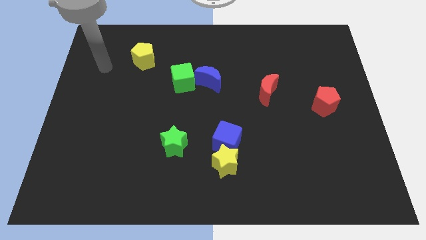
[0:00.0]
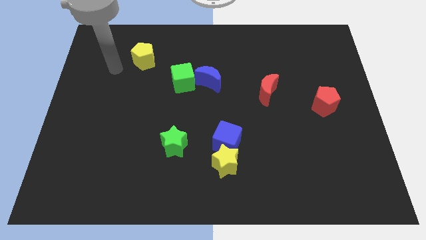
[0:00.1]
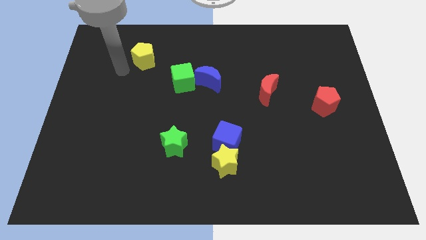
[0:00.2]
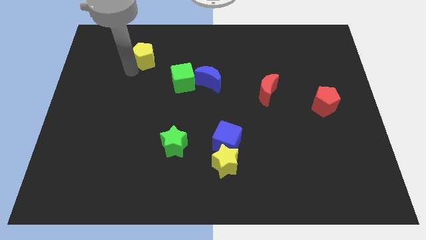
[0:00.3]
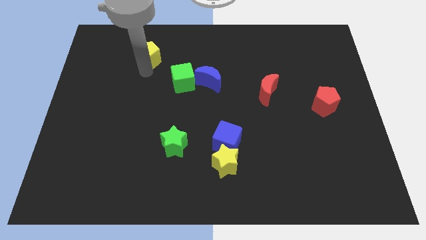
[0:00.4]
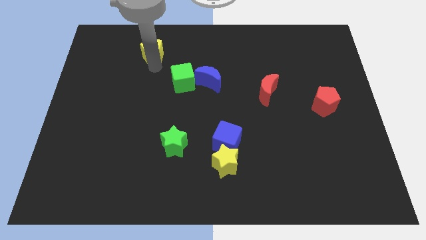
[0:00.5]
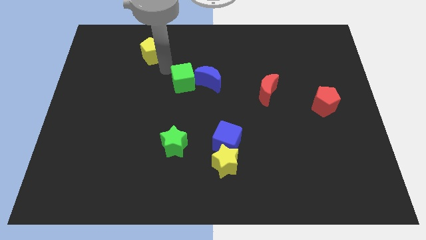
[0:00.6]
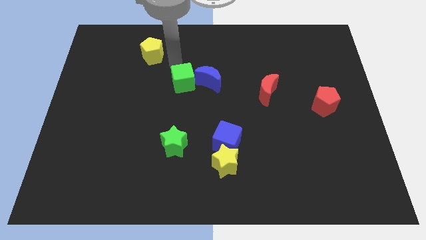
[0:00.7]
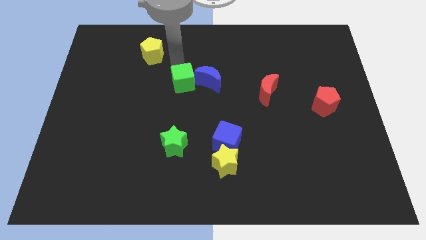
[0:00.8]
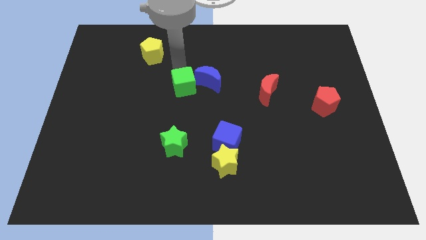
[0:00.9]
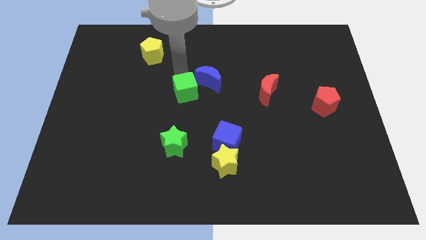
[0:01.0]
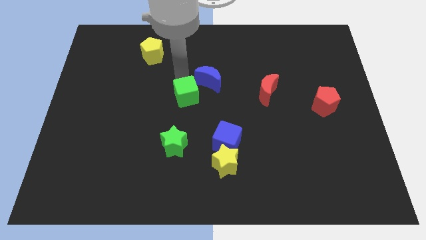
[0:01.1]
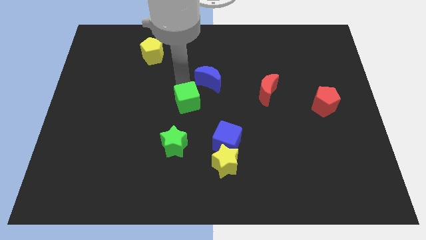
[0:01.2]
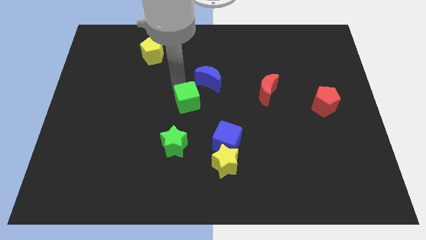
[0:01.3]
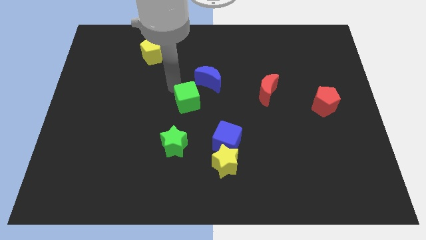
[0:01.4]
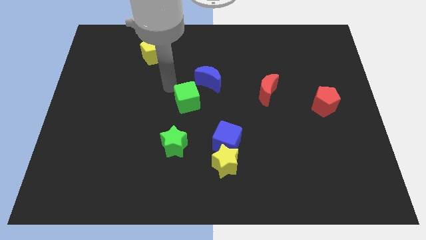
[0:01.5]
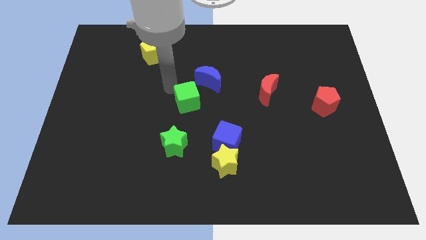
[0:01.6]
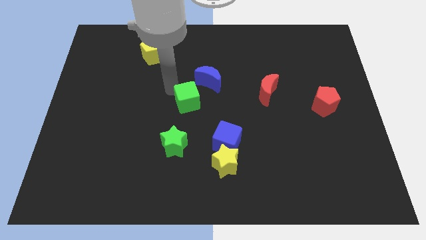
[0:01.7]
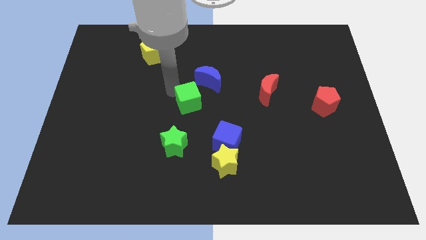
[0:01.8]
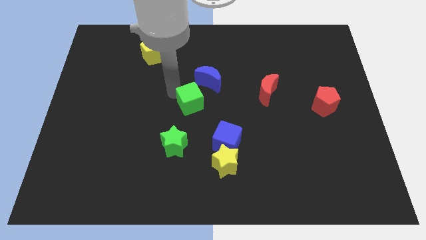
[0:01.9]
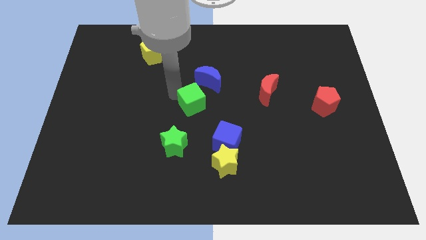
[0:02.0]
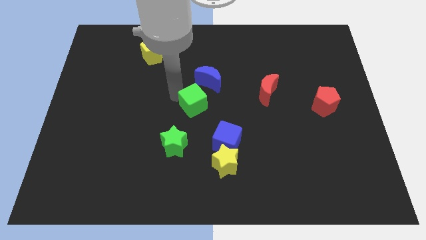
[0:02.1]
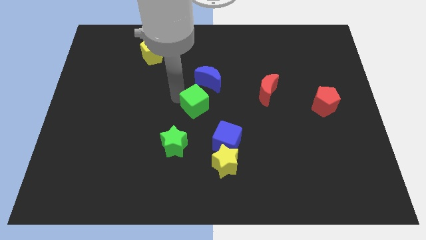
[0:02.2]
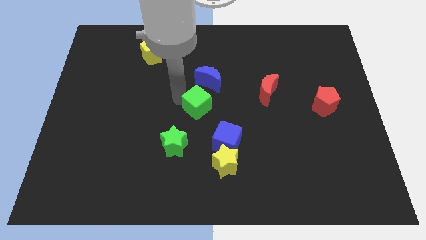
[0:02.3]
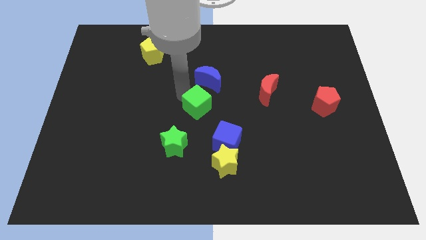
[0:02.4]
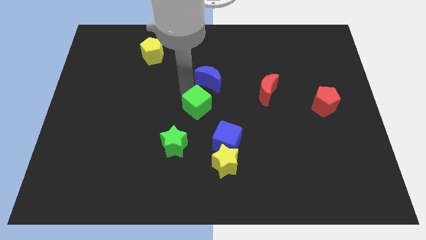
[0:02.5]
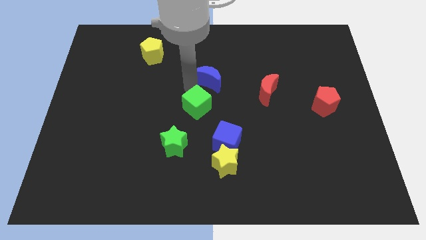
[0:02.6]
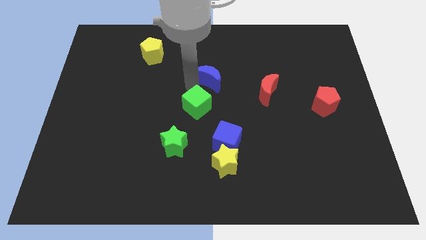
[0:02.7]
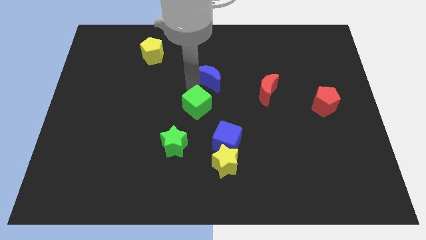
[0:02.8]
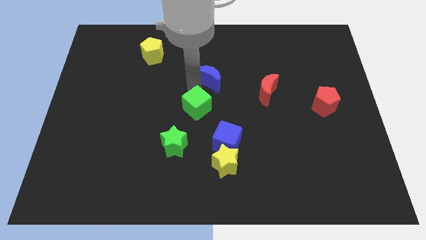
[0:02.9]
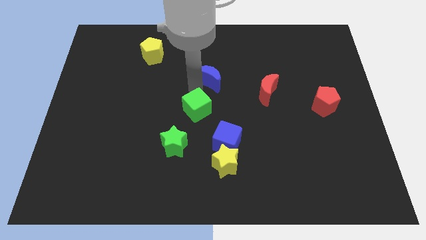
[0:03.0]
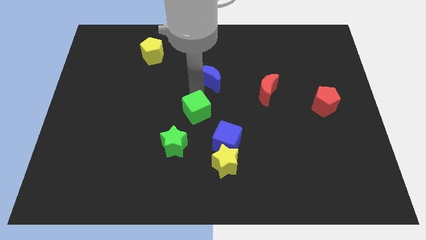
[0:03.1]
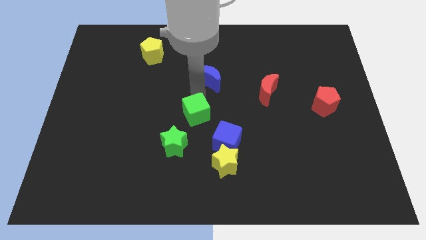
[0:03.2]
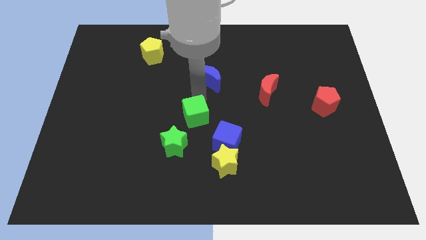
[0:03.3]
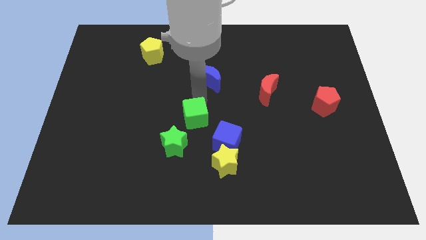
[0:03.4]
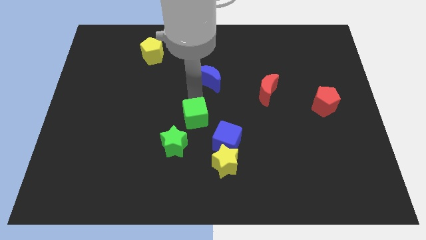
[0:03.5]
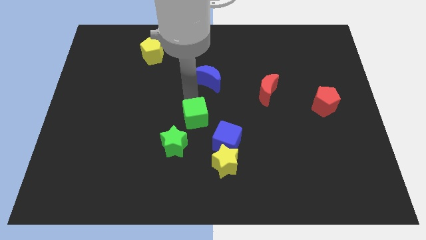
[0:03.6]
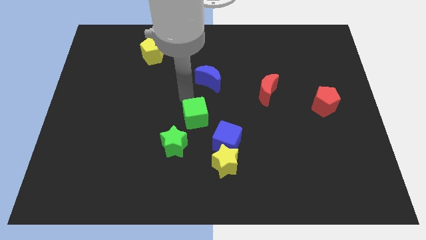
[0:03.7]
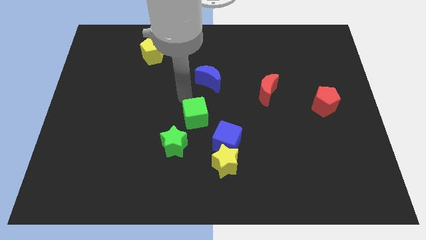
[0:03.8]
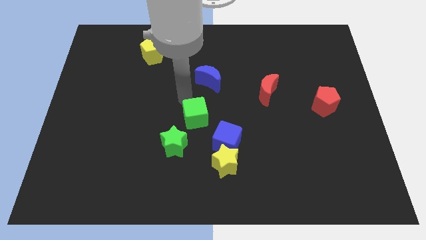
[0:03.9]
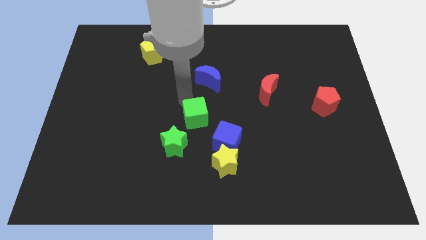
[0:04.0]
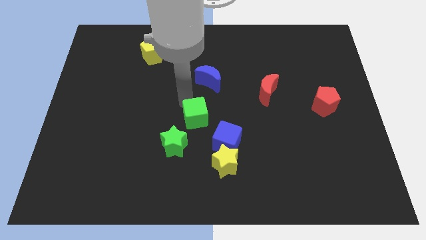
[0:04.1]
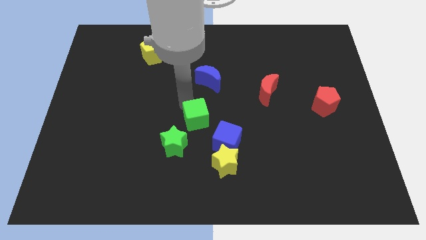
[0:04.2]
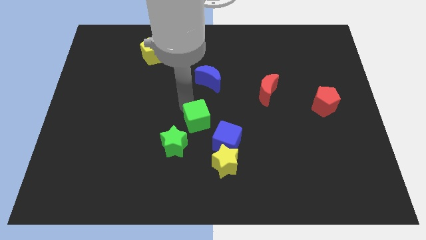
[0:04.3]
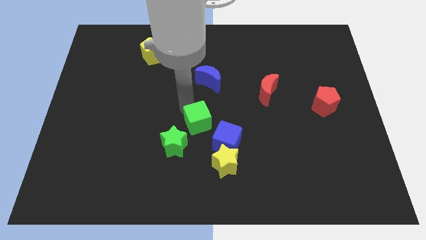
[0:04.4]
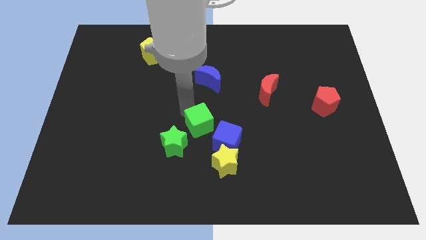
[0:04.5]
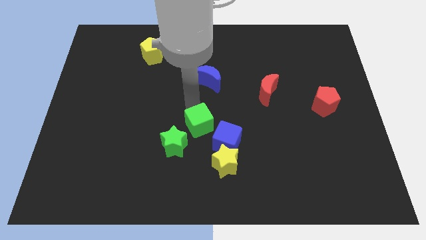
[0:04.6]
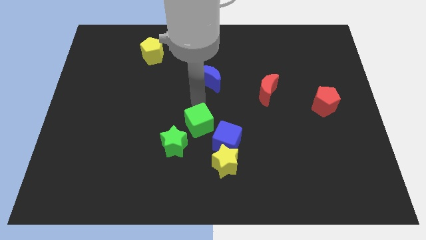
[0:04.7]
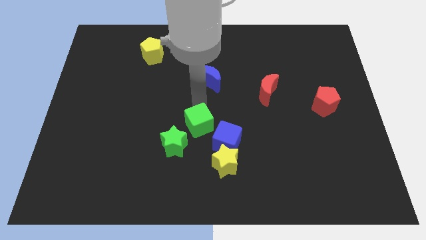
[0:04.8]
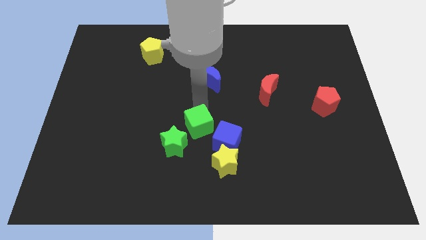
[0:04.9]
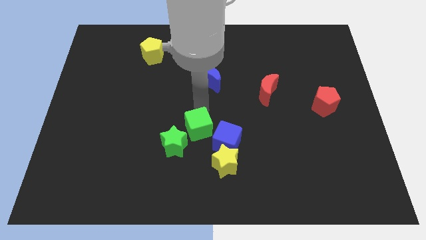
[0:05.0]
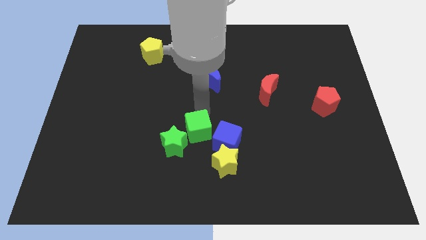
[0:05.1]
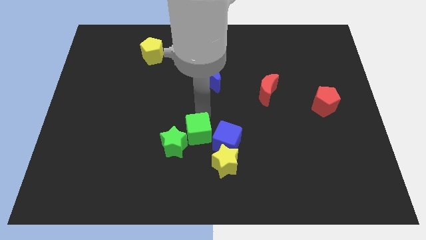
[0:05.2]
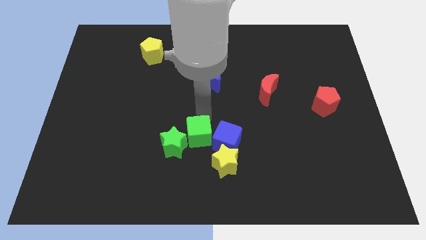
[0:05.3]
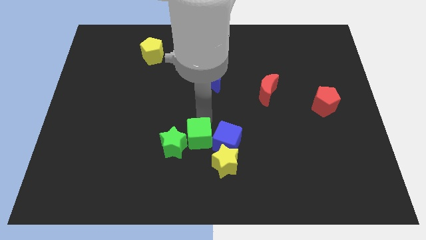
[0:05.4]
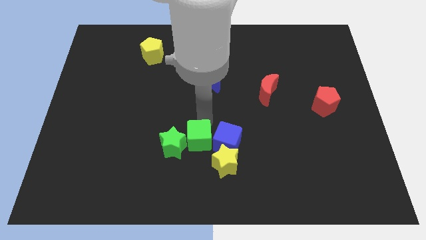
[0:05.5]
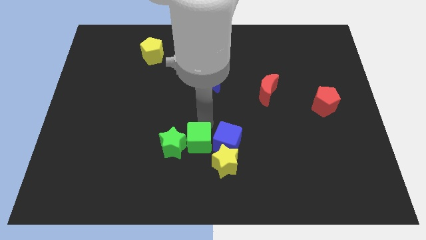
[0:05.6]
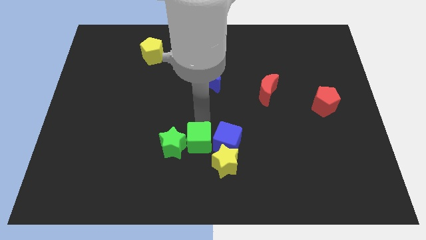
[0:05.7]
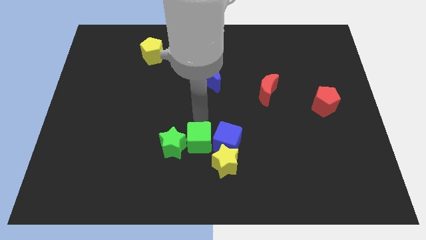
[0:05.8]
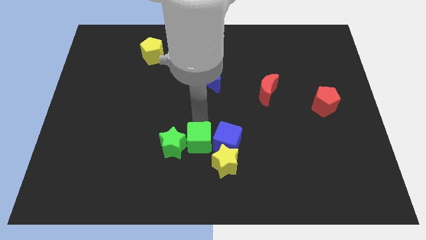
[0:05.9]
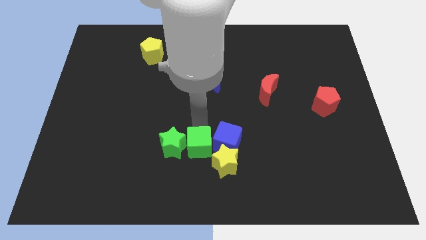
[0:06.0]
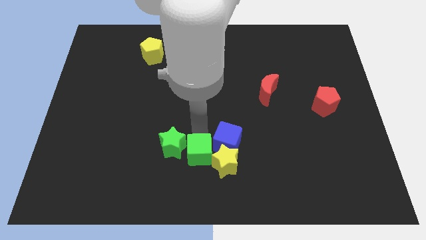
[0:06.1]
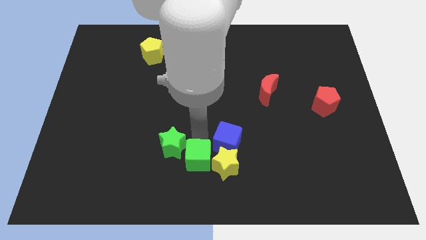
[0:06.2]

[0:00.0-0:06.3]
push the green cube to the bottom side
